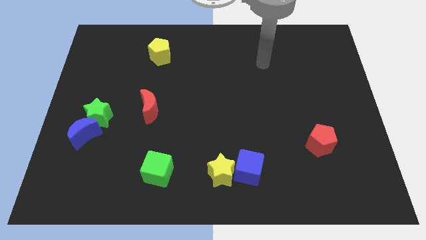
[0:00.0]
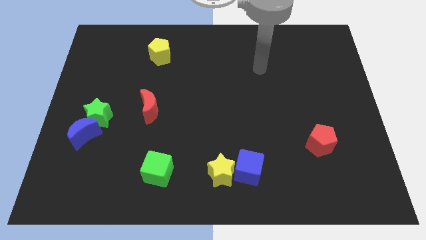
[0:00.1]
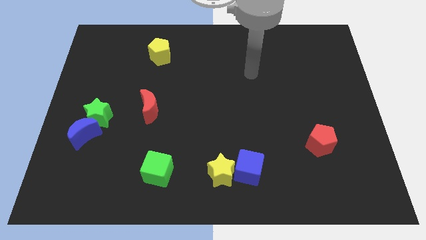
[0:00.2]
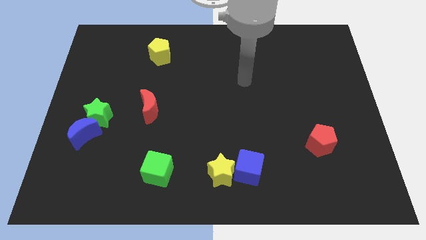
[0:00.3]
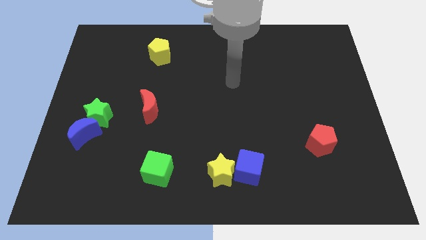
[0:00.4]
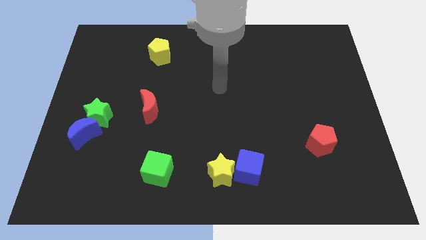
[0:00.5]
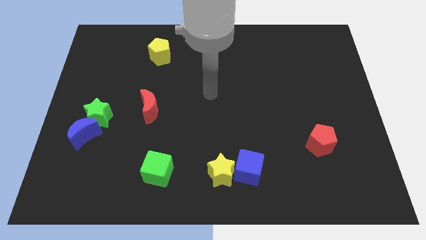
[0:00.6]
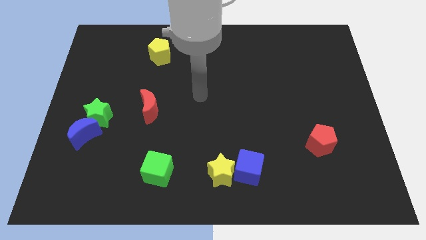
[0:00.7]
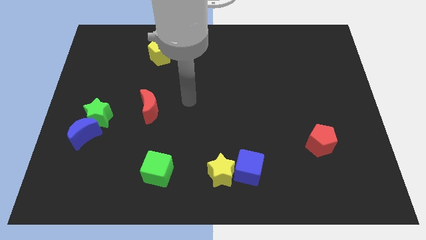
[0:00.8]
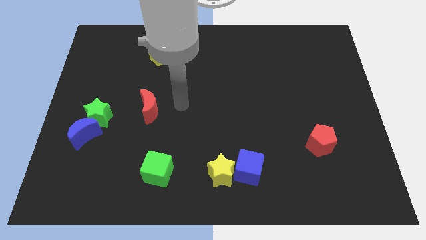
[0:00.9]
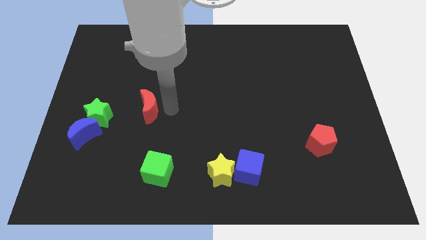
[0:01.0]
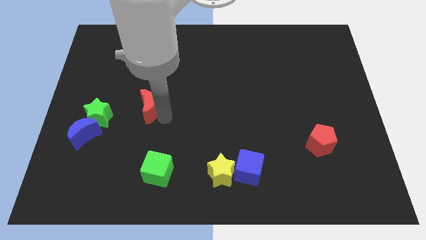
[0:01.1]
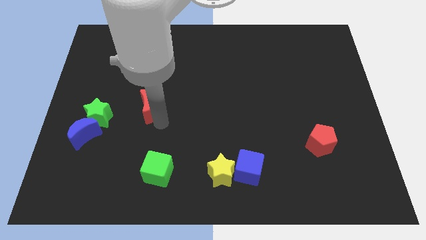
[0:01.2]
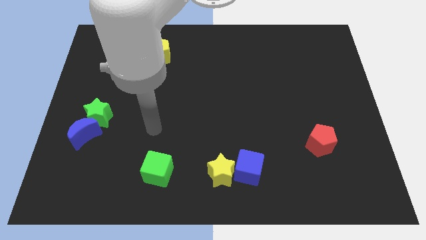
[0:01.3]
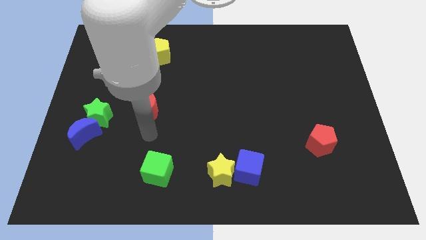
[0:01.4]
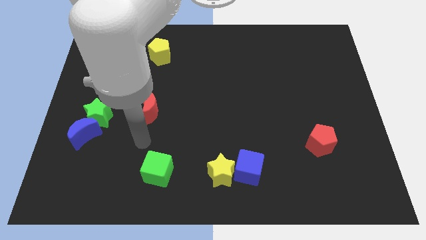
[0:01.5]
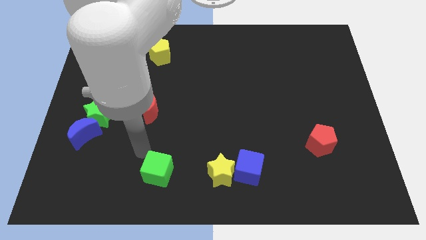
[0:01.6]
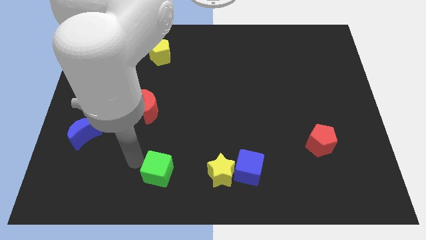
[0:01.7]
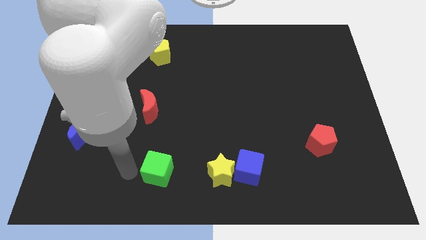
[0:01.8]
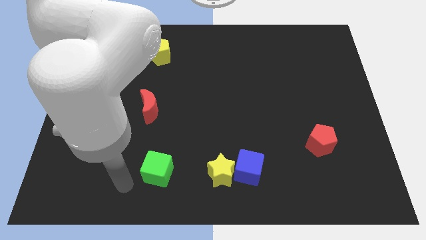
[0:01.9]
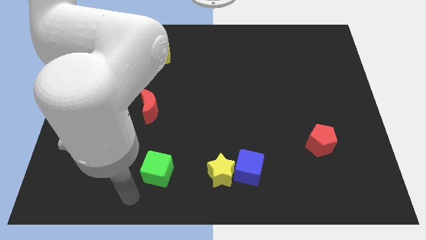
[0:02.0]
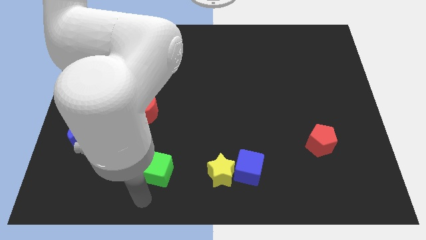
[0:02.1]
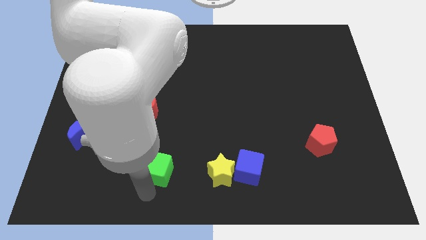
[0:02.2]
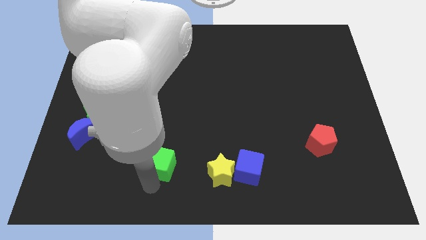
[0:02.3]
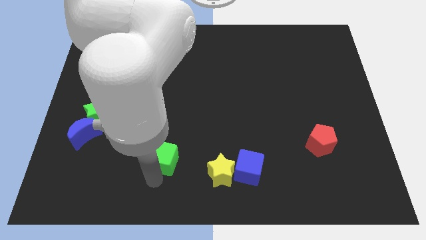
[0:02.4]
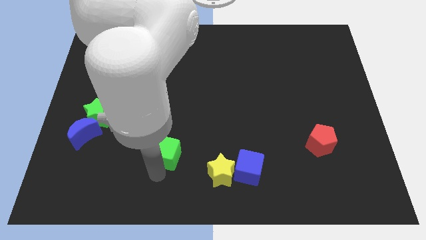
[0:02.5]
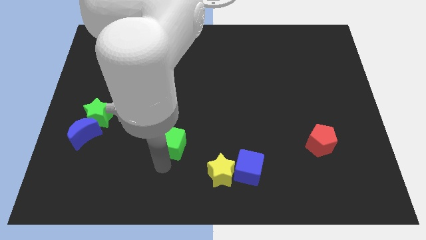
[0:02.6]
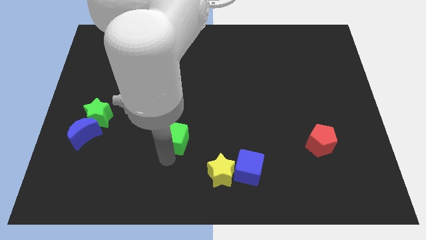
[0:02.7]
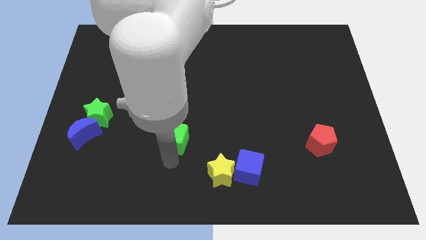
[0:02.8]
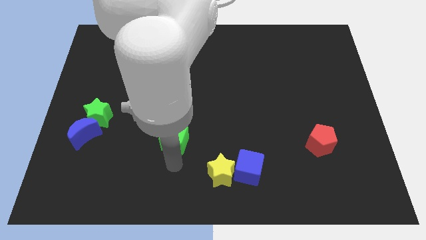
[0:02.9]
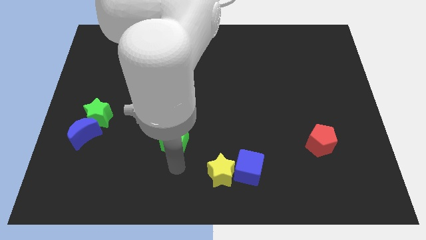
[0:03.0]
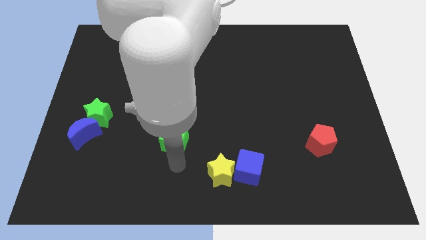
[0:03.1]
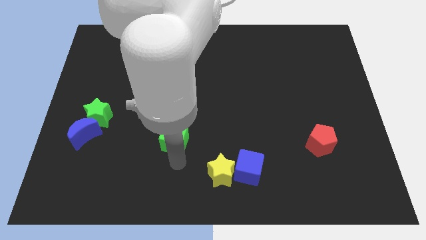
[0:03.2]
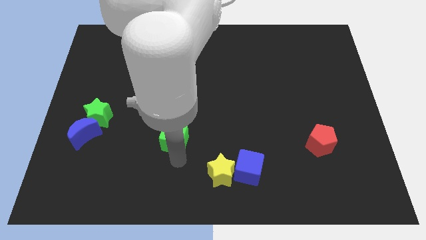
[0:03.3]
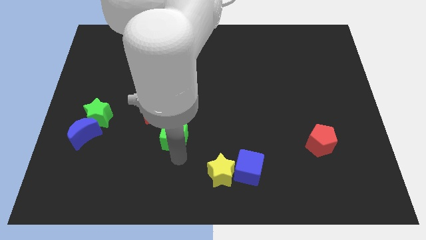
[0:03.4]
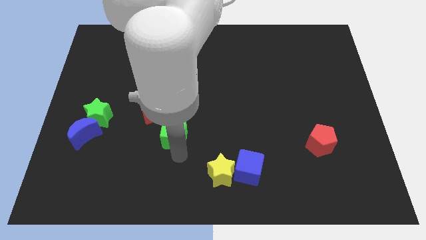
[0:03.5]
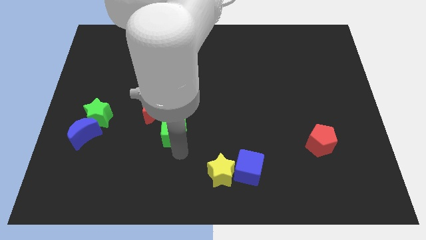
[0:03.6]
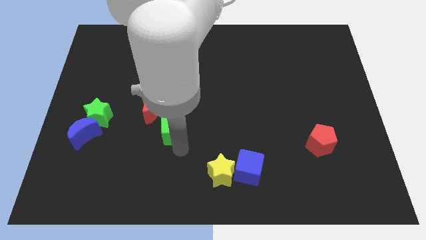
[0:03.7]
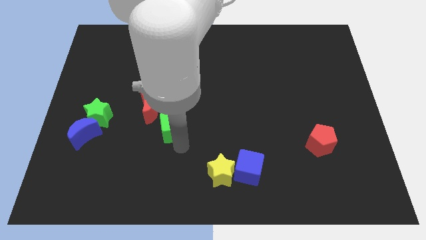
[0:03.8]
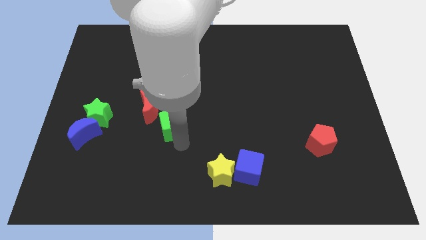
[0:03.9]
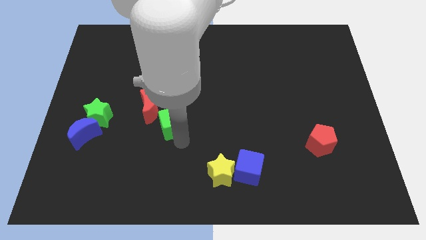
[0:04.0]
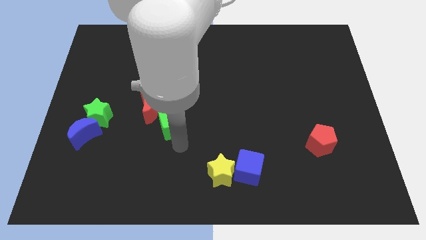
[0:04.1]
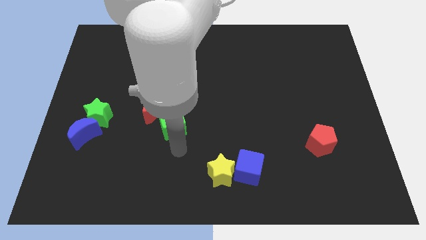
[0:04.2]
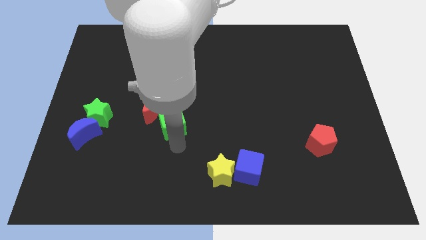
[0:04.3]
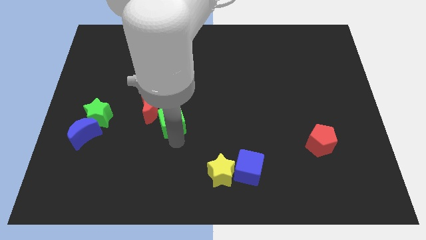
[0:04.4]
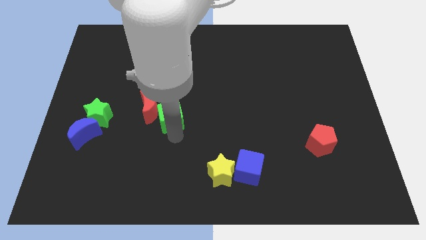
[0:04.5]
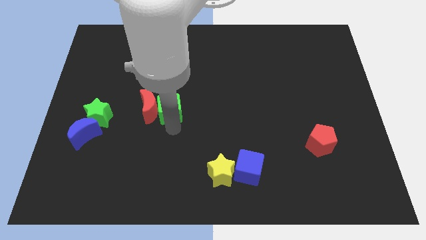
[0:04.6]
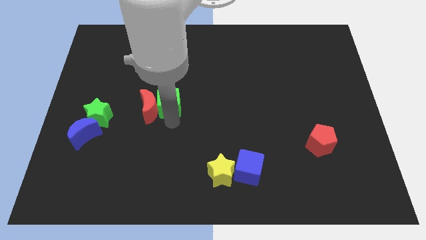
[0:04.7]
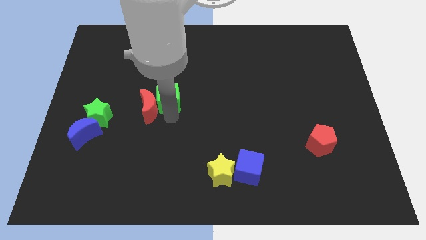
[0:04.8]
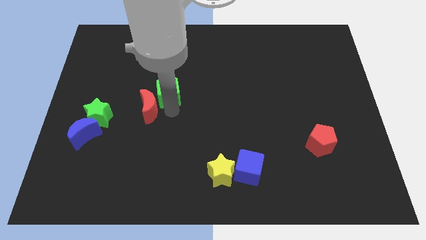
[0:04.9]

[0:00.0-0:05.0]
push the green cube to the bottom side of the yellow pentagon

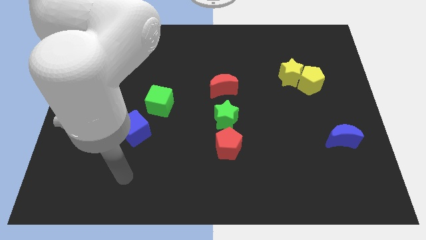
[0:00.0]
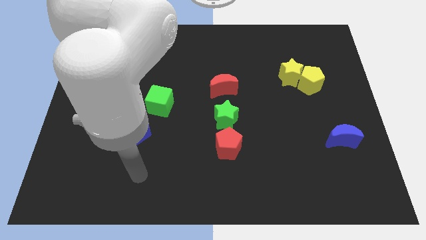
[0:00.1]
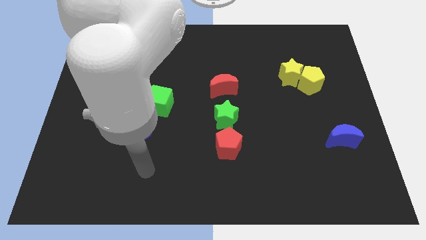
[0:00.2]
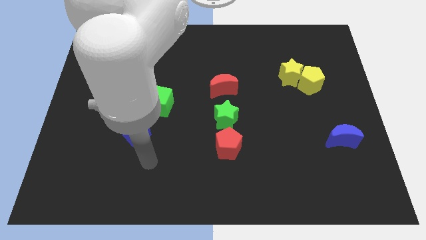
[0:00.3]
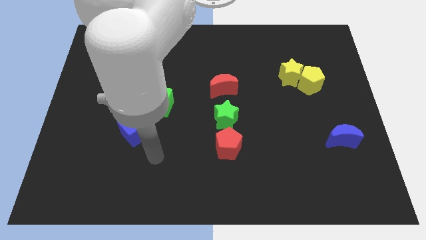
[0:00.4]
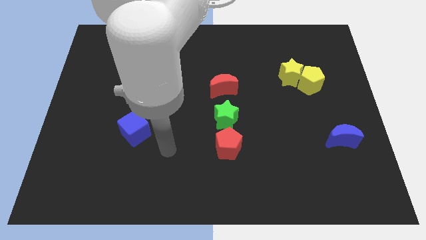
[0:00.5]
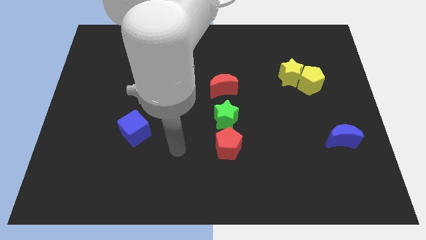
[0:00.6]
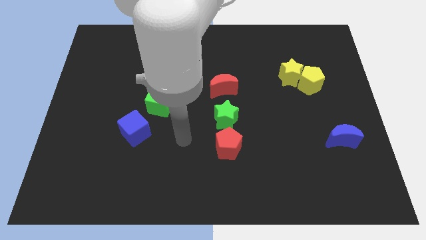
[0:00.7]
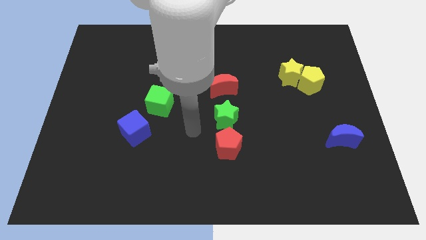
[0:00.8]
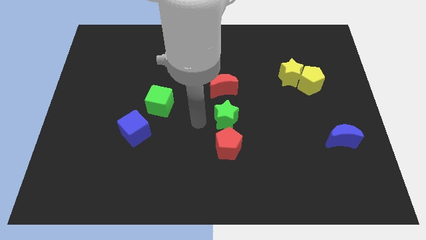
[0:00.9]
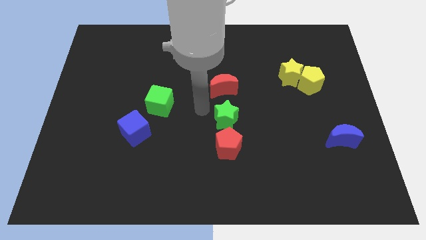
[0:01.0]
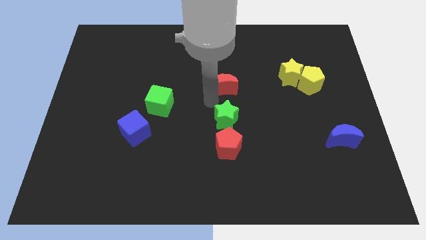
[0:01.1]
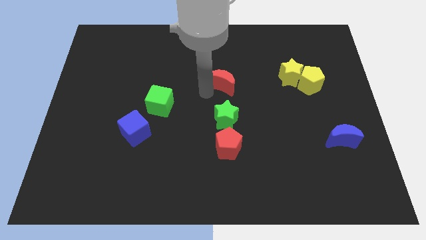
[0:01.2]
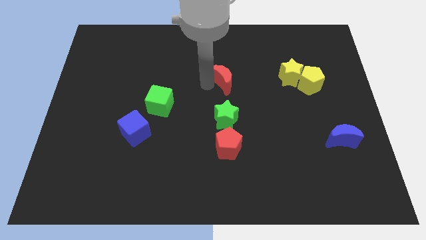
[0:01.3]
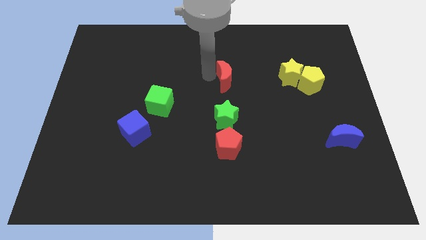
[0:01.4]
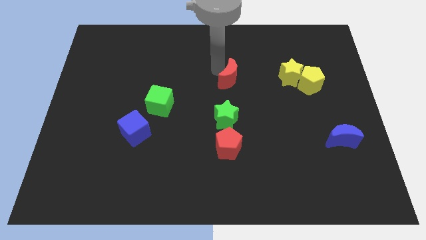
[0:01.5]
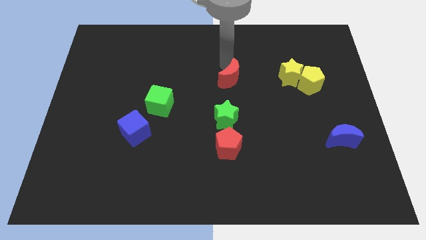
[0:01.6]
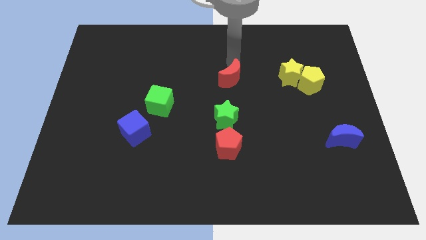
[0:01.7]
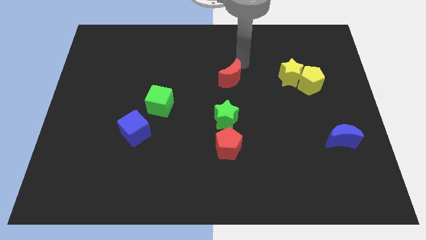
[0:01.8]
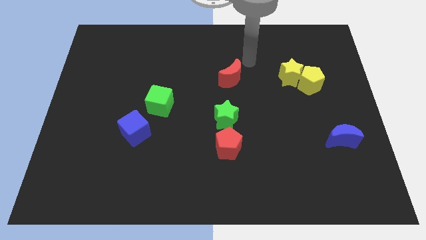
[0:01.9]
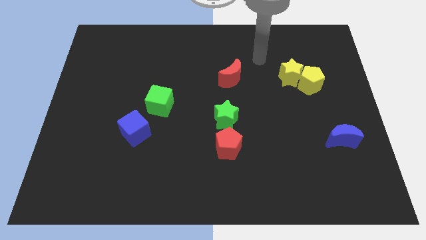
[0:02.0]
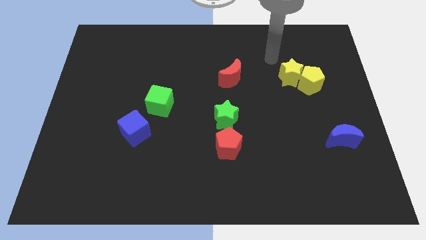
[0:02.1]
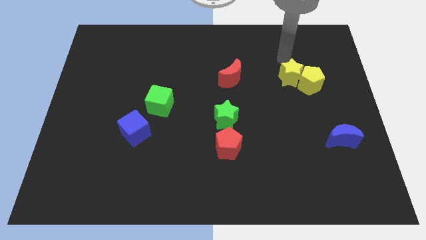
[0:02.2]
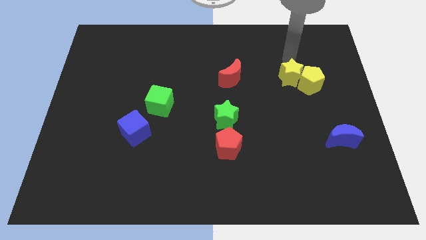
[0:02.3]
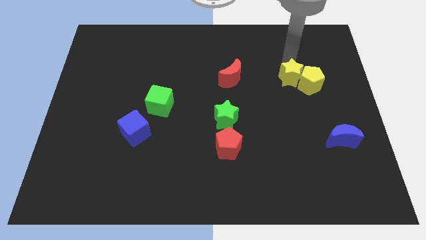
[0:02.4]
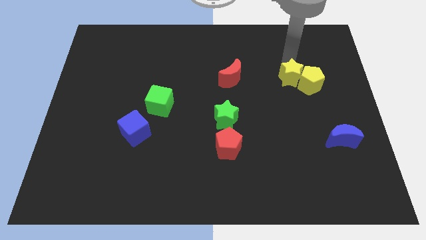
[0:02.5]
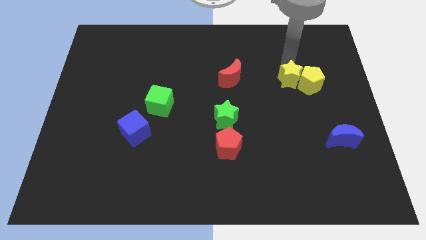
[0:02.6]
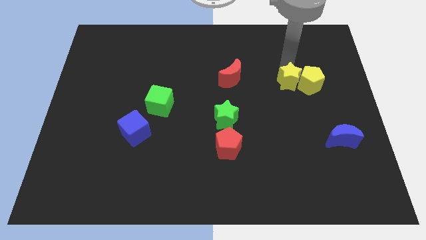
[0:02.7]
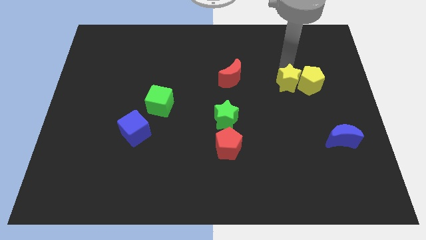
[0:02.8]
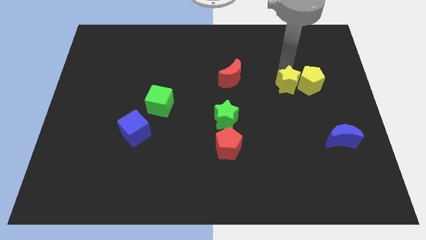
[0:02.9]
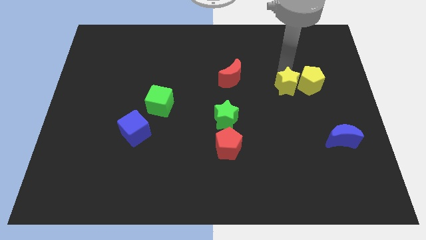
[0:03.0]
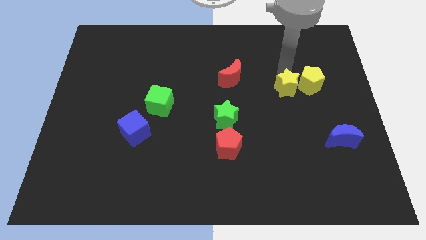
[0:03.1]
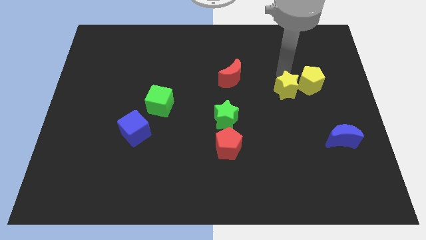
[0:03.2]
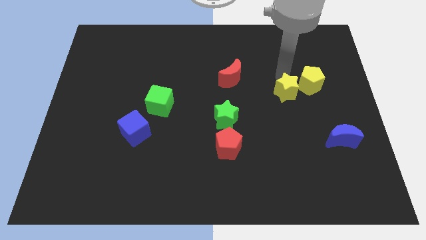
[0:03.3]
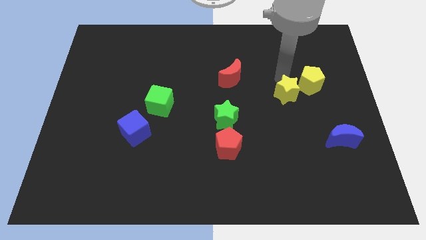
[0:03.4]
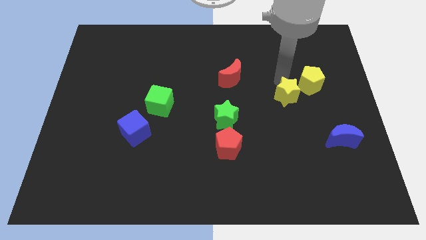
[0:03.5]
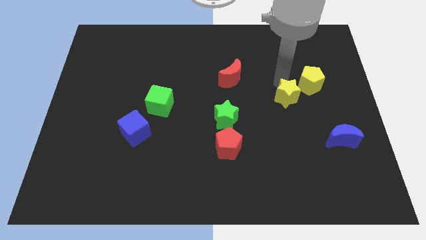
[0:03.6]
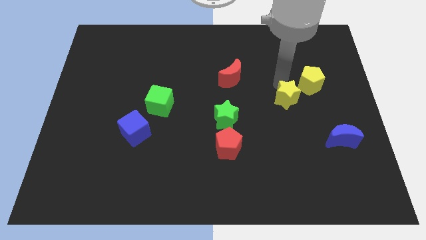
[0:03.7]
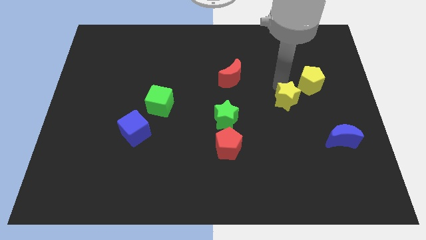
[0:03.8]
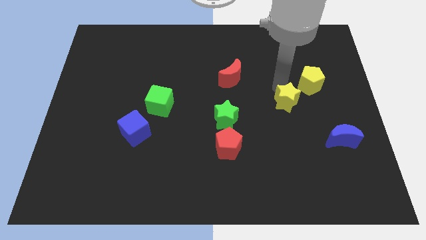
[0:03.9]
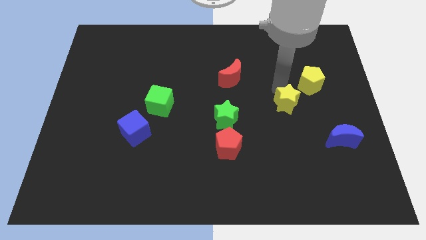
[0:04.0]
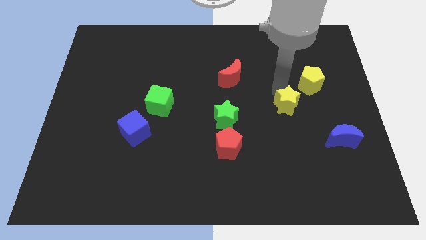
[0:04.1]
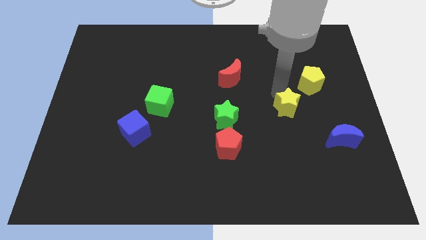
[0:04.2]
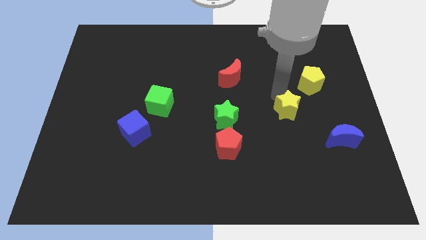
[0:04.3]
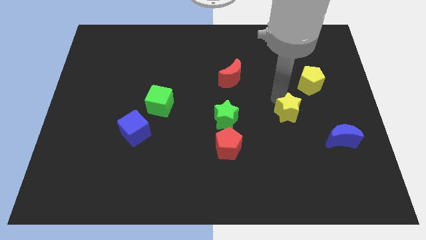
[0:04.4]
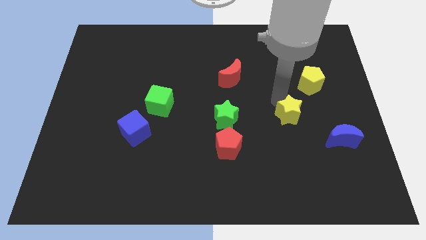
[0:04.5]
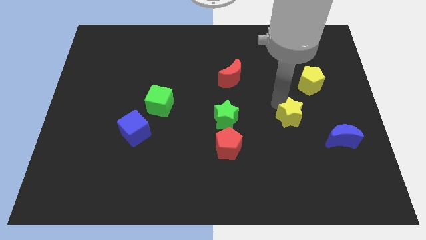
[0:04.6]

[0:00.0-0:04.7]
push the yellow star to the top left side of the blue moon
